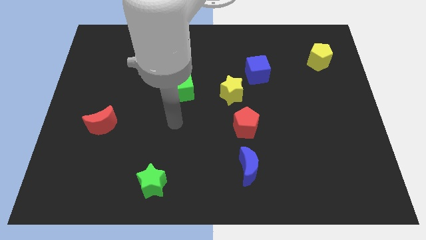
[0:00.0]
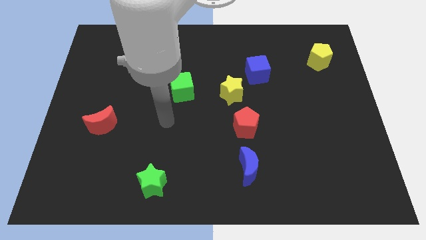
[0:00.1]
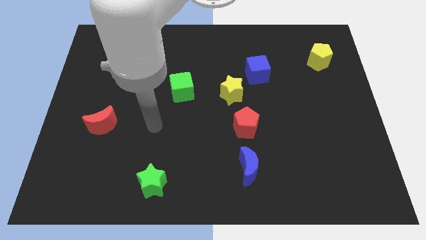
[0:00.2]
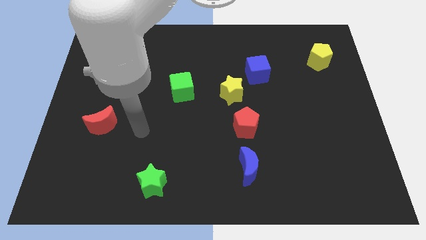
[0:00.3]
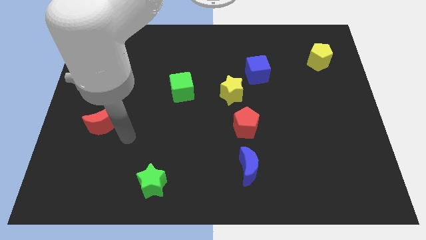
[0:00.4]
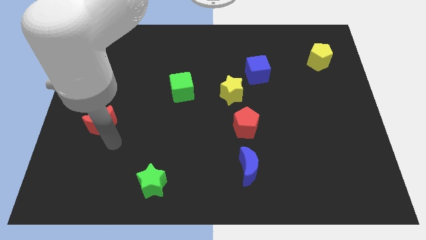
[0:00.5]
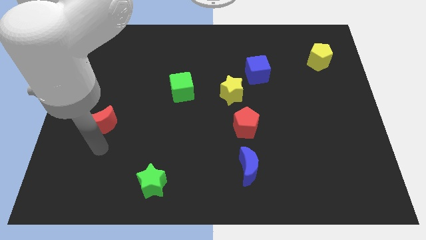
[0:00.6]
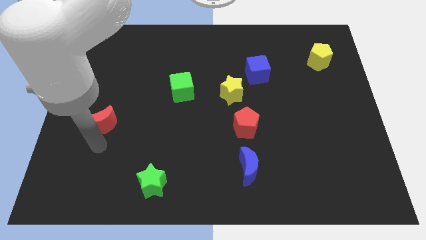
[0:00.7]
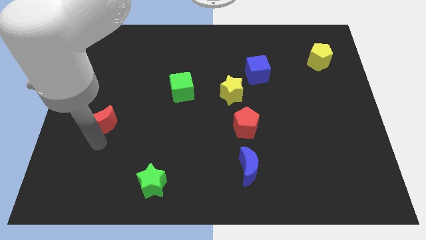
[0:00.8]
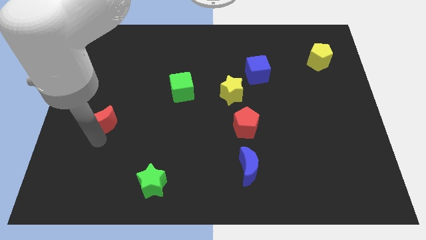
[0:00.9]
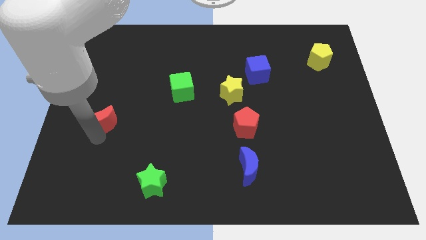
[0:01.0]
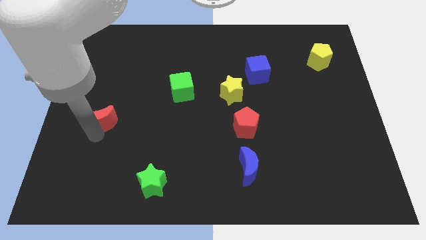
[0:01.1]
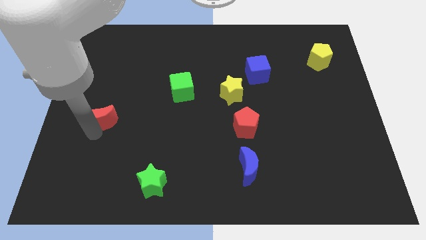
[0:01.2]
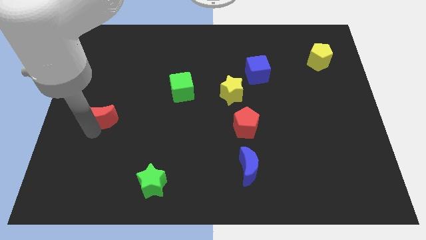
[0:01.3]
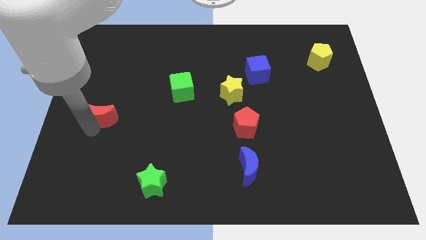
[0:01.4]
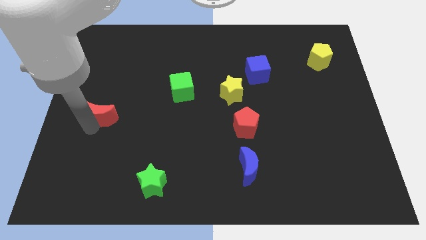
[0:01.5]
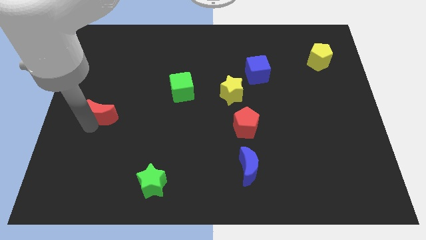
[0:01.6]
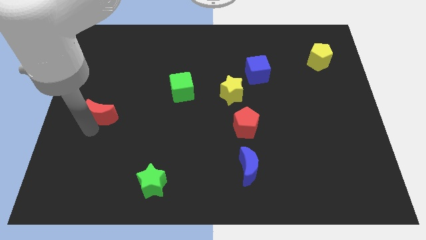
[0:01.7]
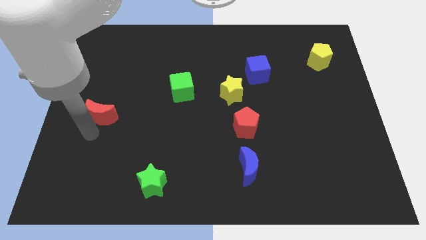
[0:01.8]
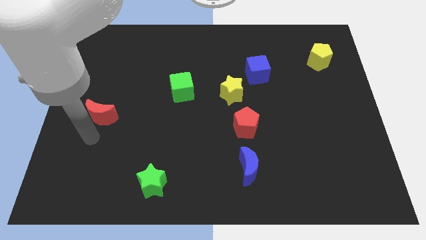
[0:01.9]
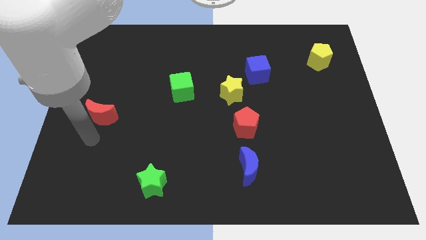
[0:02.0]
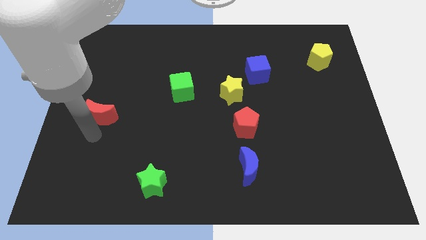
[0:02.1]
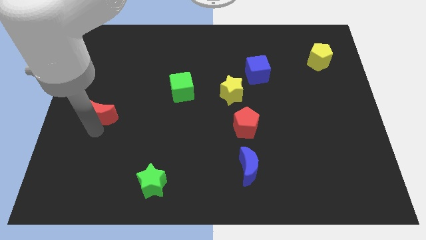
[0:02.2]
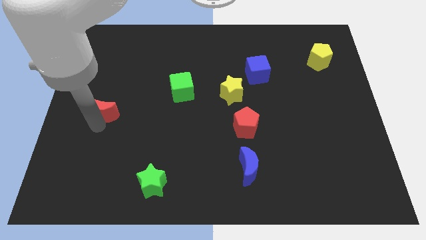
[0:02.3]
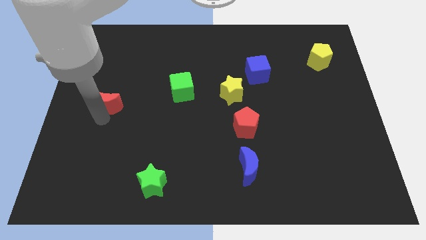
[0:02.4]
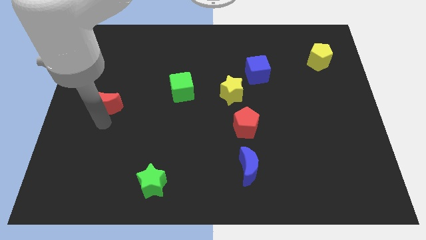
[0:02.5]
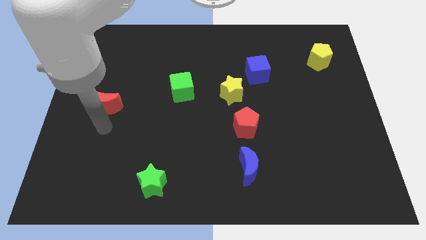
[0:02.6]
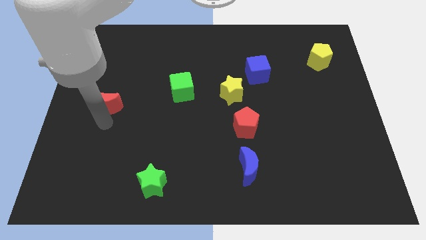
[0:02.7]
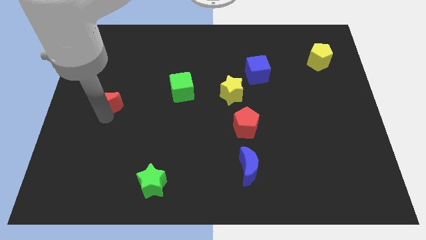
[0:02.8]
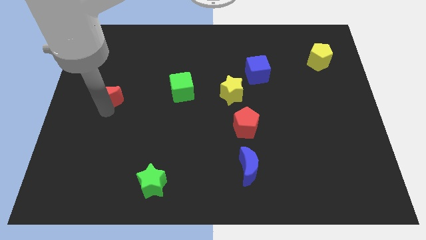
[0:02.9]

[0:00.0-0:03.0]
move the red moon a little upwards

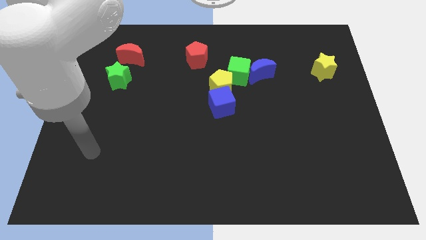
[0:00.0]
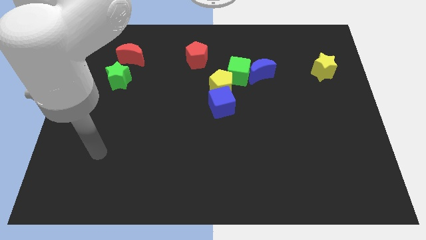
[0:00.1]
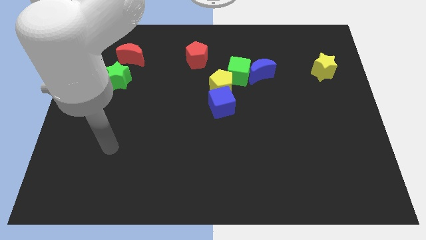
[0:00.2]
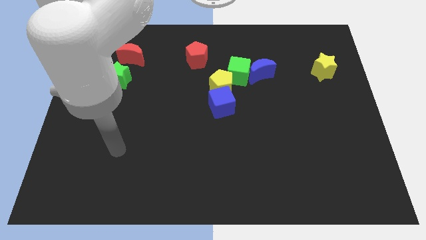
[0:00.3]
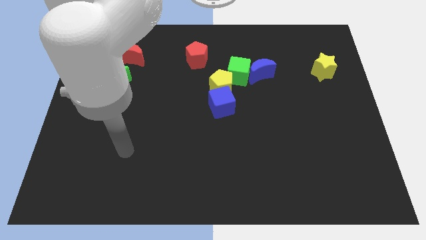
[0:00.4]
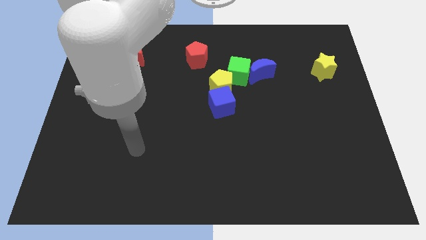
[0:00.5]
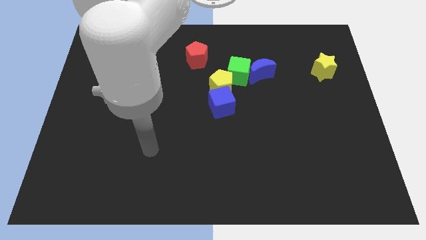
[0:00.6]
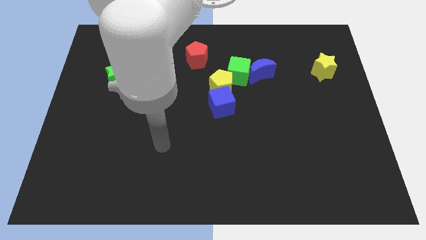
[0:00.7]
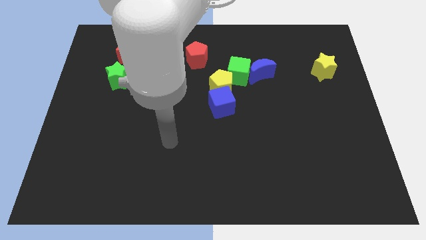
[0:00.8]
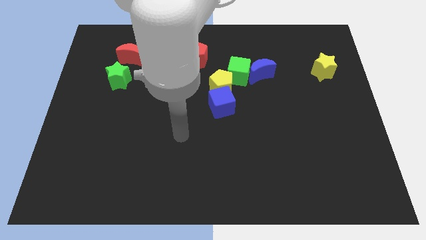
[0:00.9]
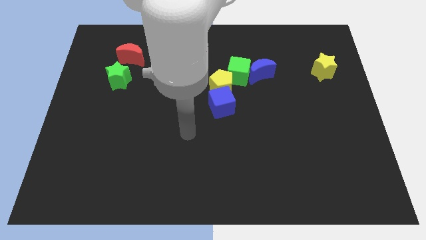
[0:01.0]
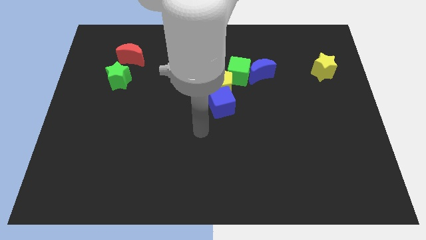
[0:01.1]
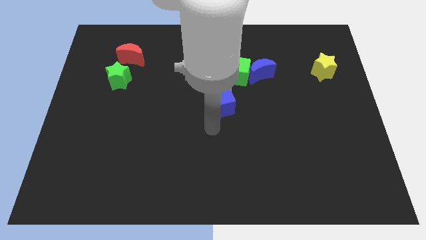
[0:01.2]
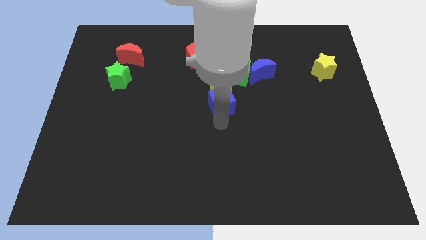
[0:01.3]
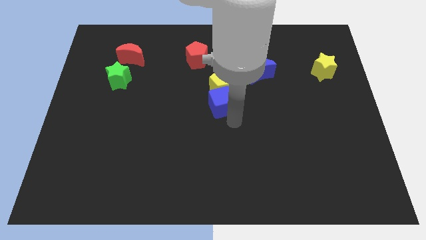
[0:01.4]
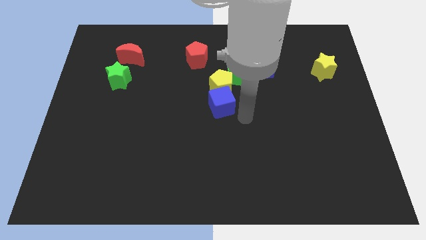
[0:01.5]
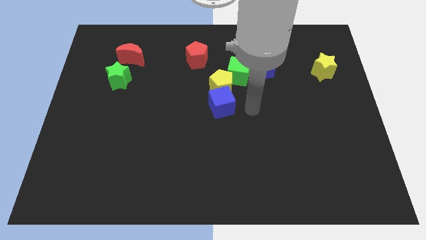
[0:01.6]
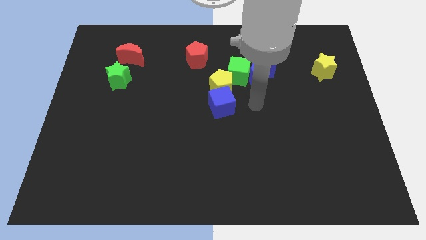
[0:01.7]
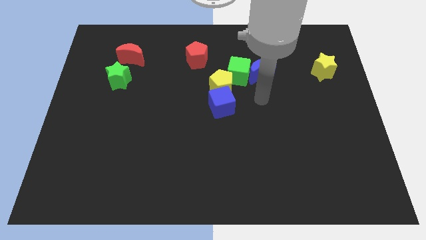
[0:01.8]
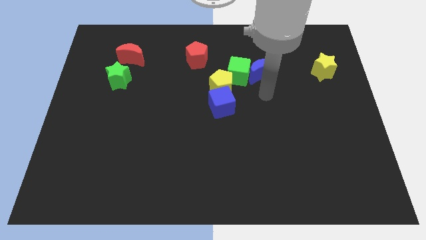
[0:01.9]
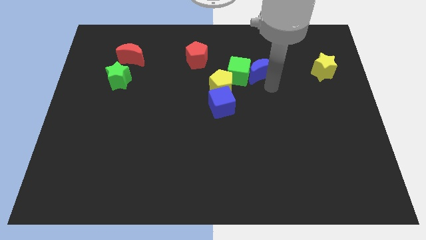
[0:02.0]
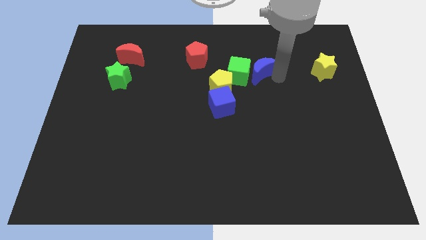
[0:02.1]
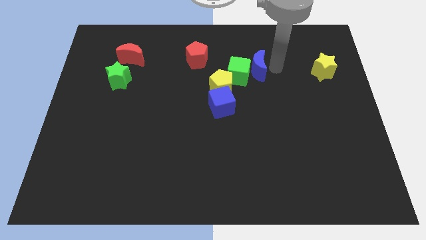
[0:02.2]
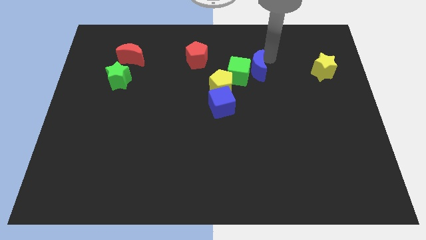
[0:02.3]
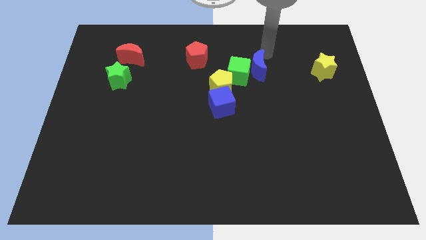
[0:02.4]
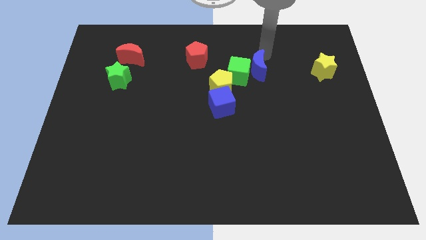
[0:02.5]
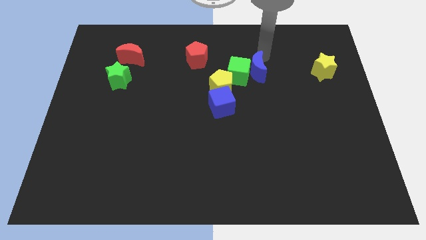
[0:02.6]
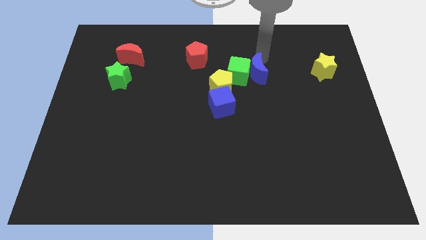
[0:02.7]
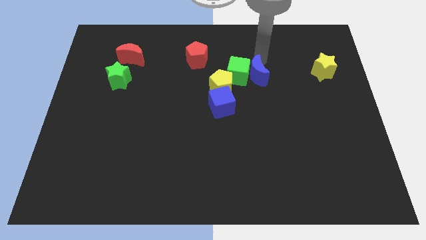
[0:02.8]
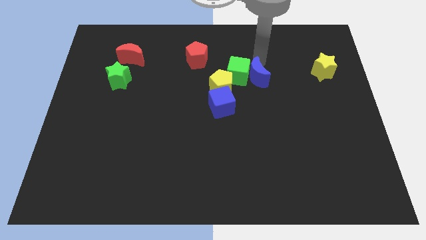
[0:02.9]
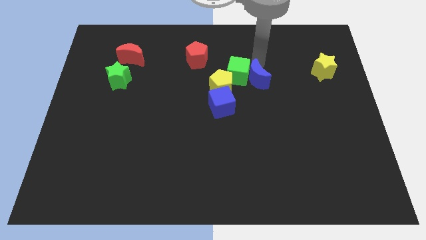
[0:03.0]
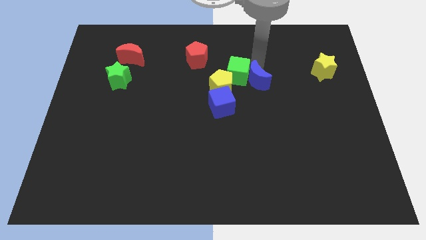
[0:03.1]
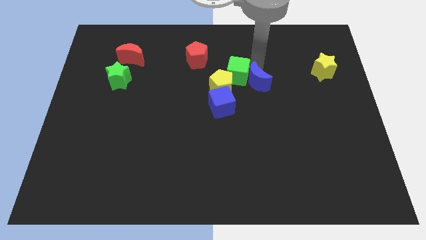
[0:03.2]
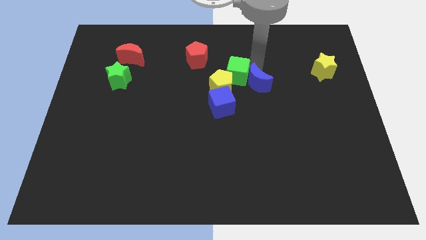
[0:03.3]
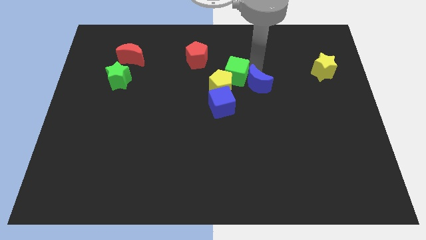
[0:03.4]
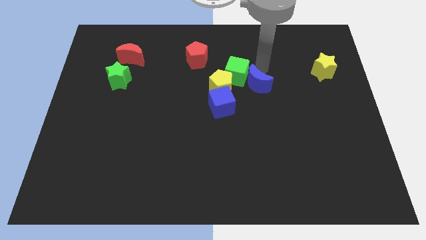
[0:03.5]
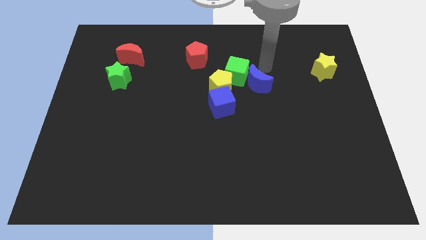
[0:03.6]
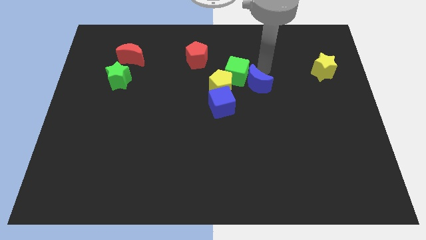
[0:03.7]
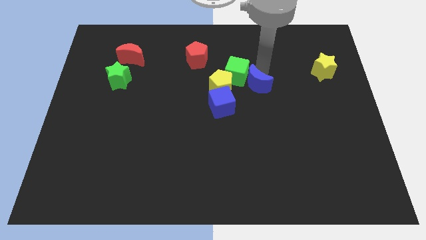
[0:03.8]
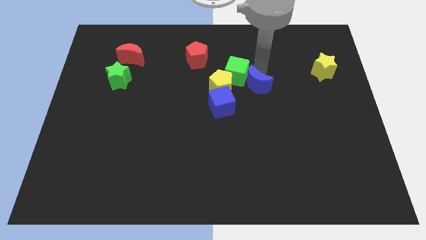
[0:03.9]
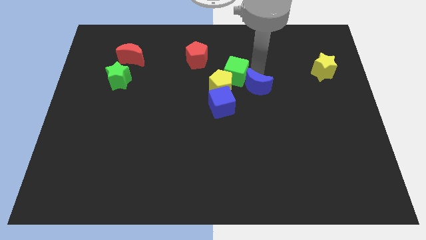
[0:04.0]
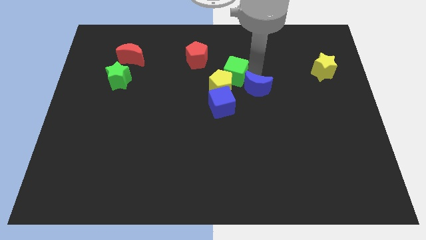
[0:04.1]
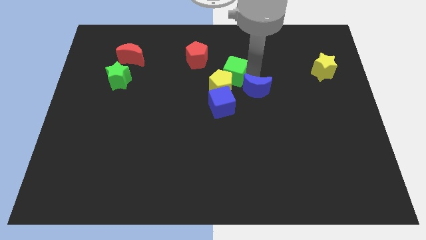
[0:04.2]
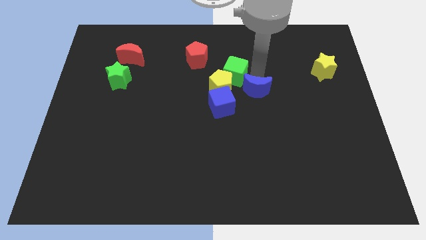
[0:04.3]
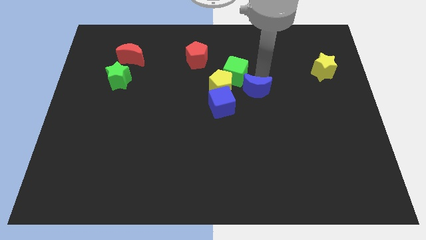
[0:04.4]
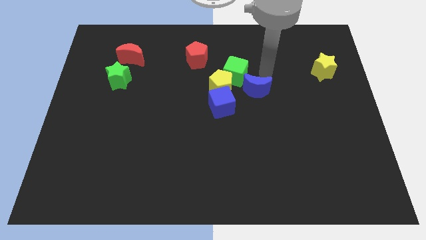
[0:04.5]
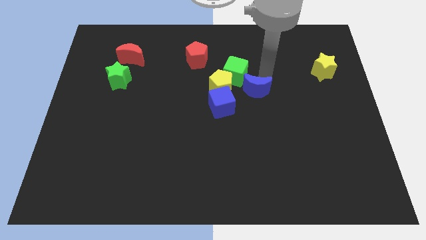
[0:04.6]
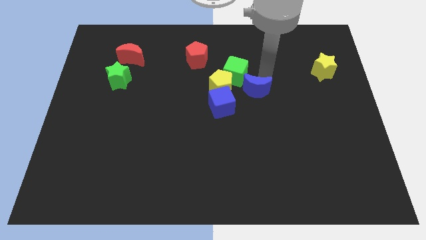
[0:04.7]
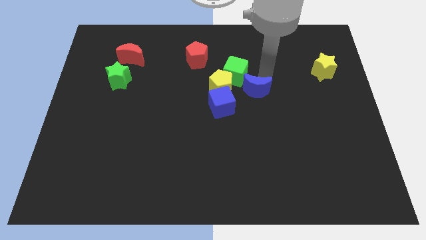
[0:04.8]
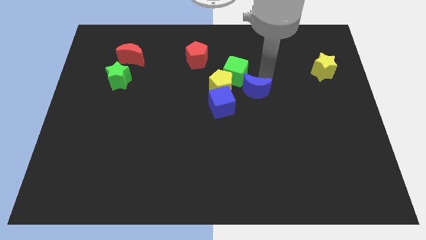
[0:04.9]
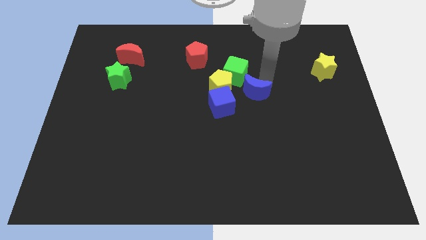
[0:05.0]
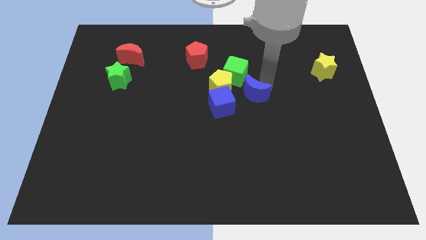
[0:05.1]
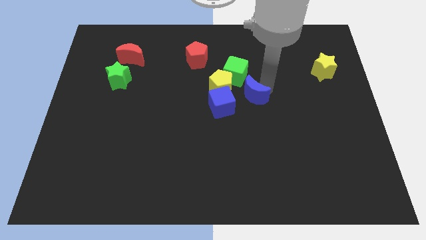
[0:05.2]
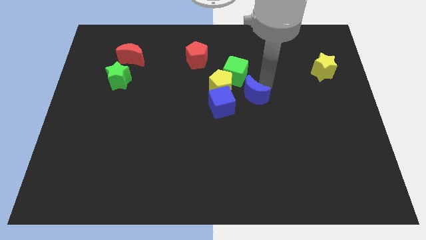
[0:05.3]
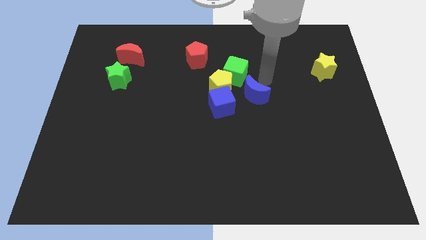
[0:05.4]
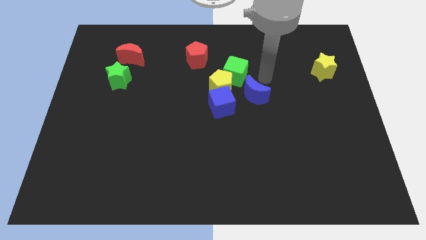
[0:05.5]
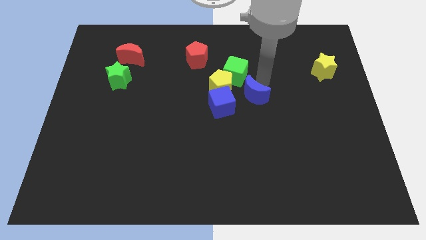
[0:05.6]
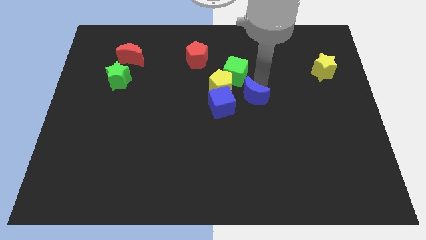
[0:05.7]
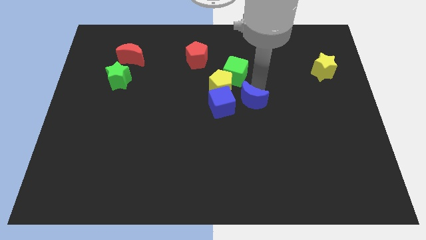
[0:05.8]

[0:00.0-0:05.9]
push the blue moon slightly diagonally downwards and to the left
